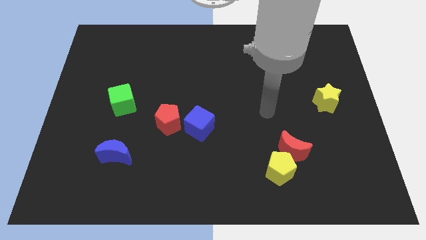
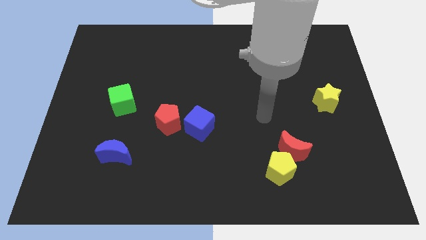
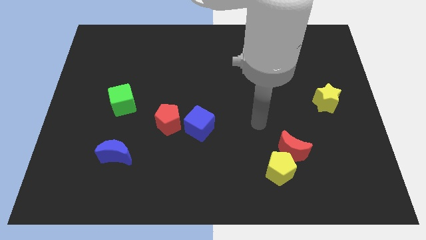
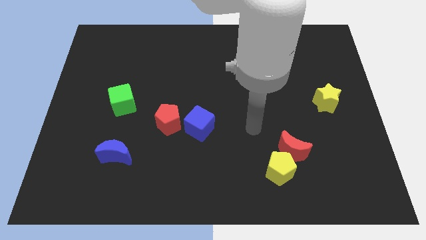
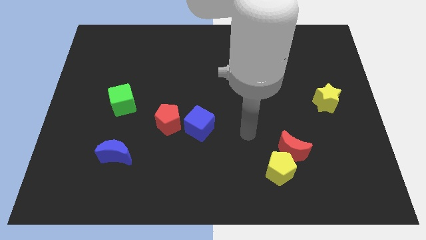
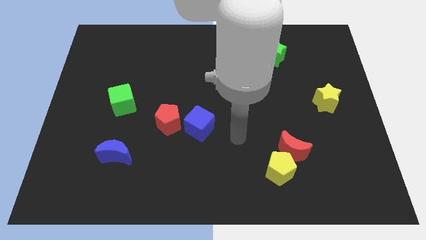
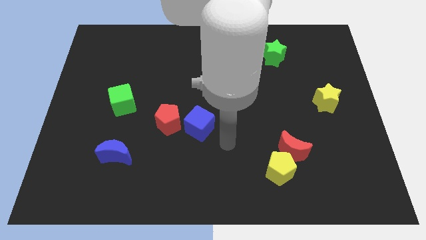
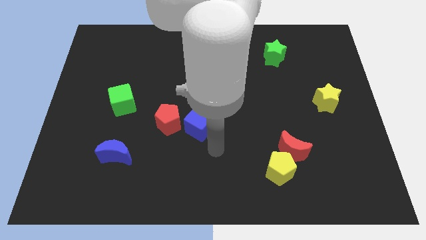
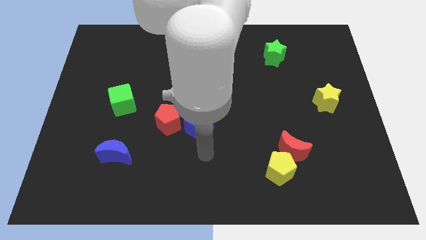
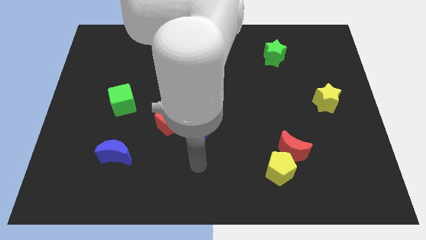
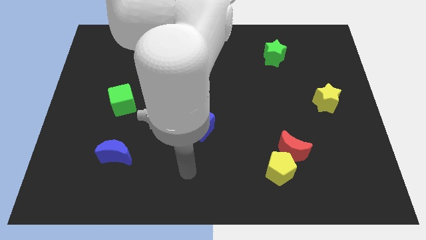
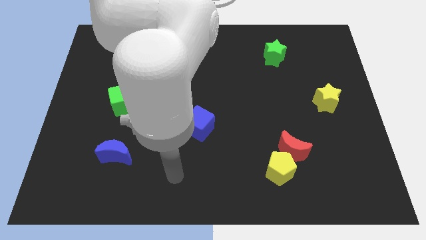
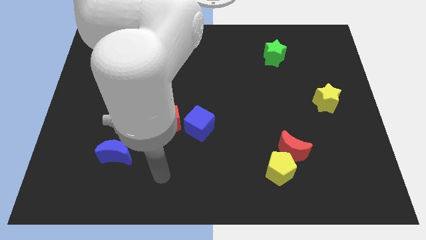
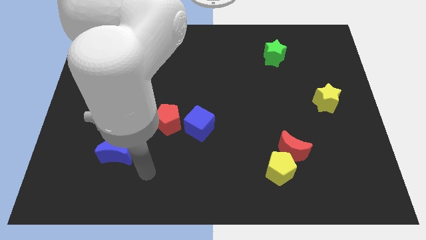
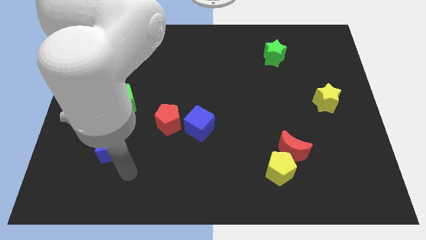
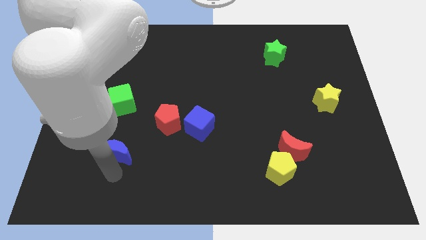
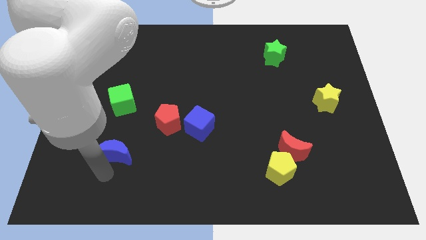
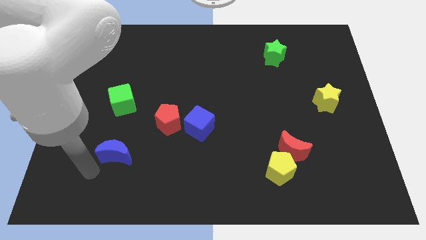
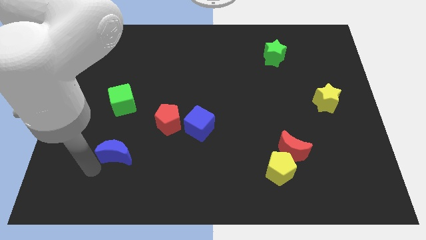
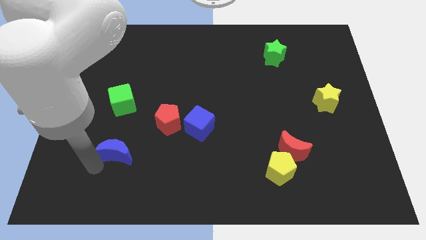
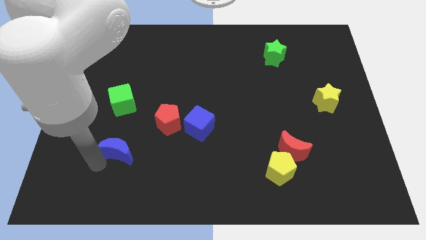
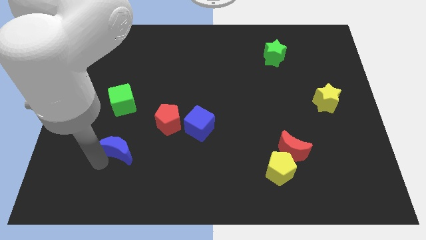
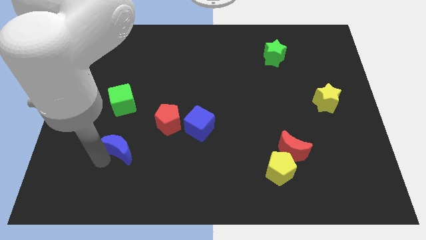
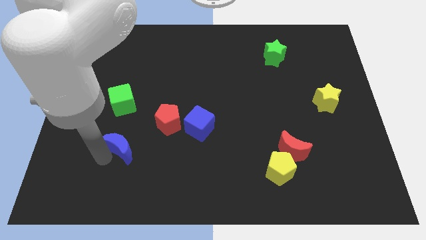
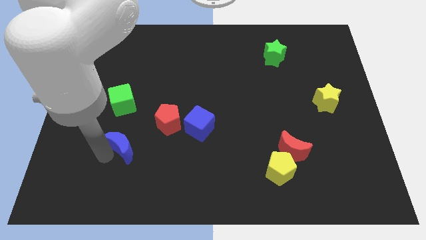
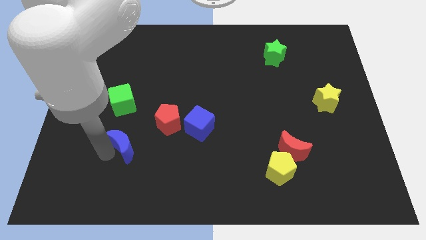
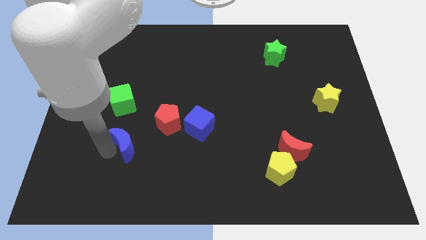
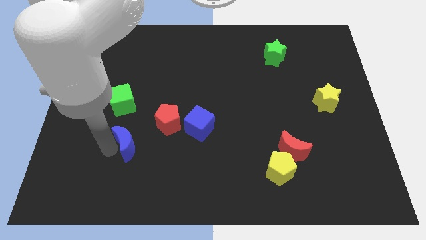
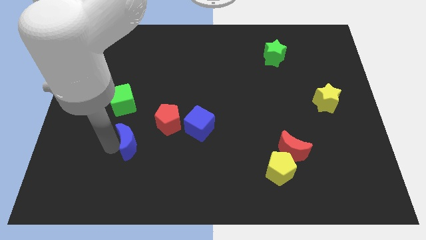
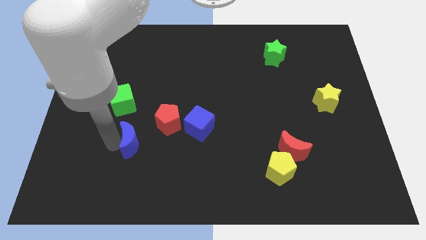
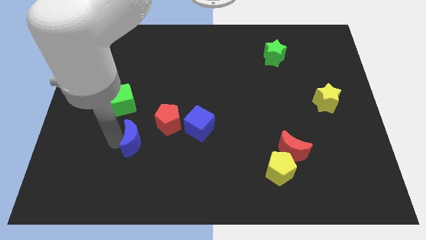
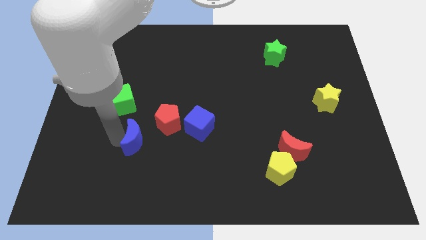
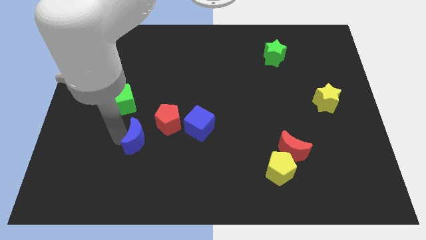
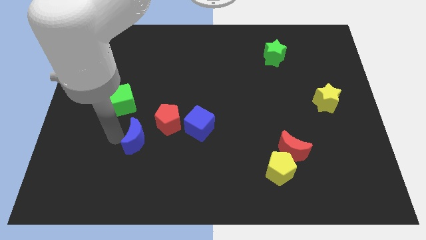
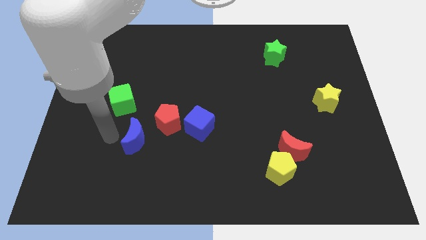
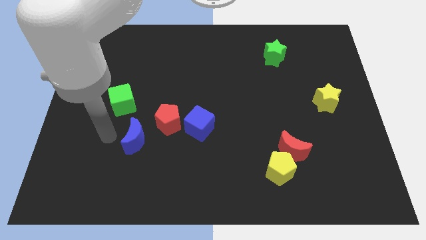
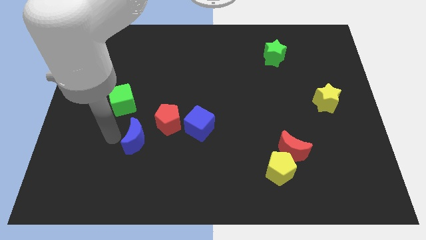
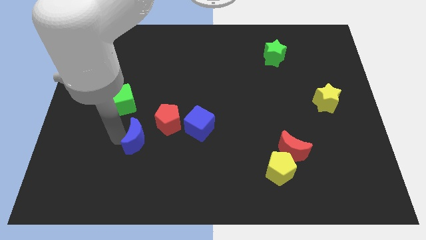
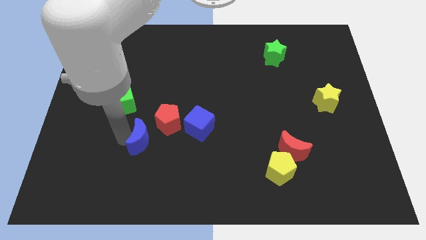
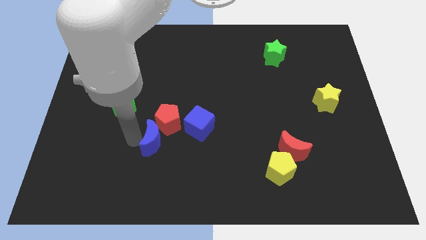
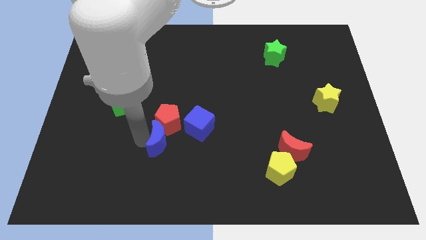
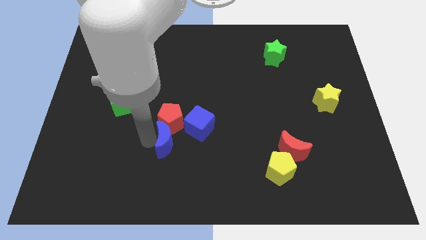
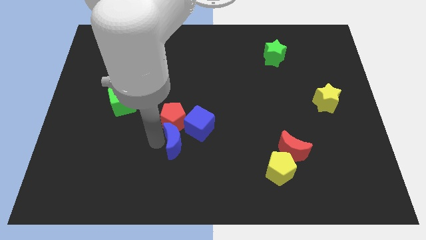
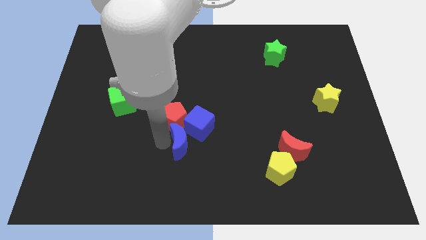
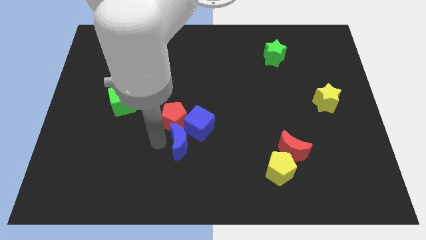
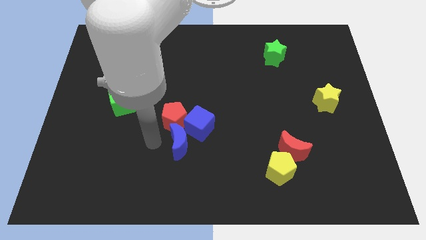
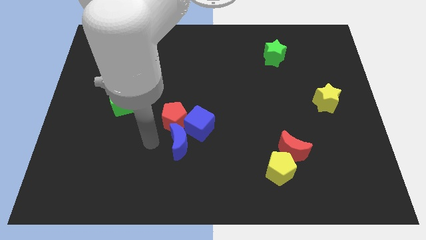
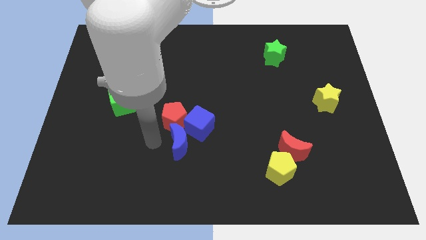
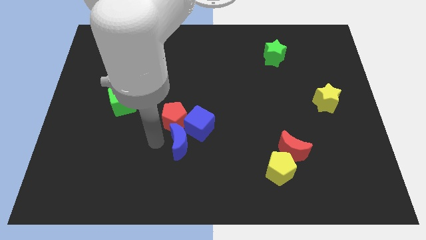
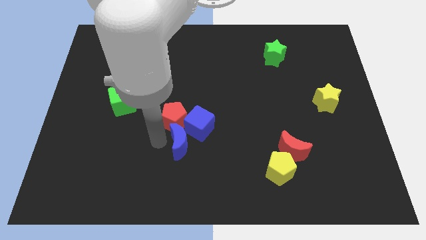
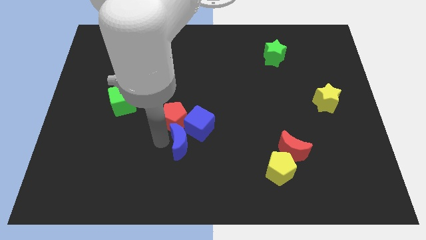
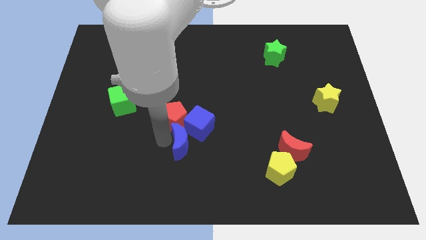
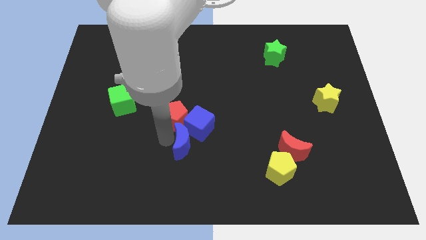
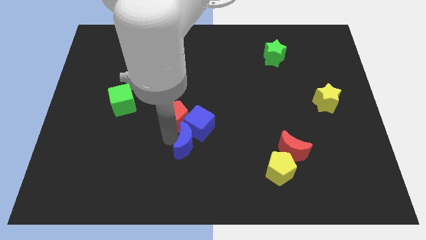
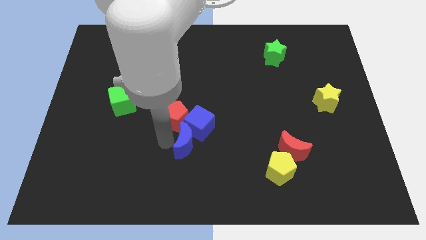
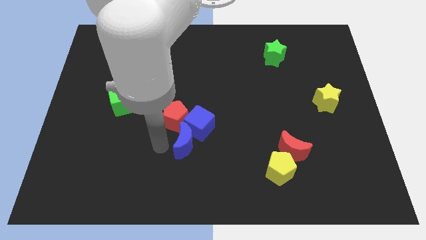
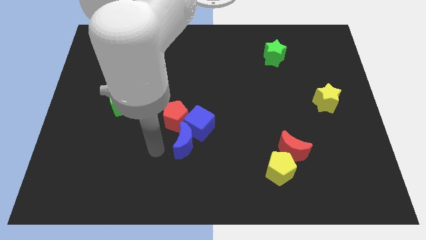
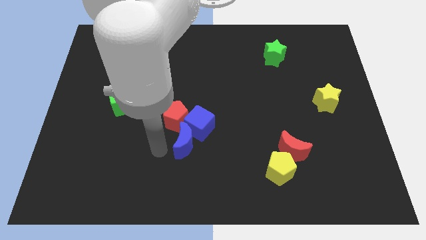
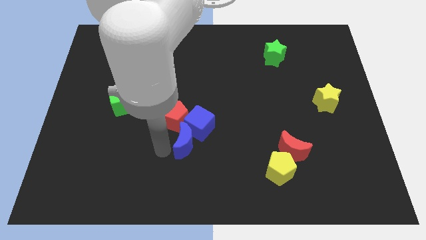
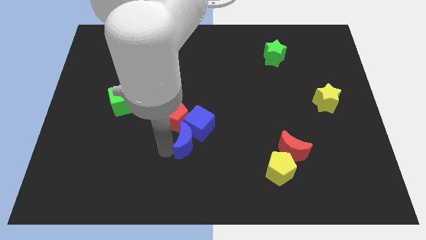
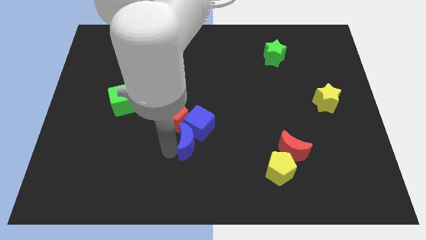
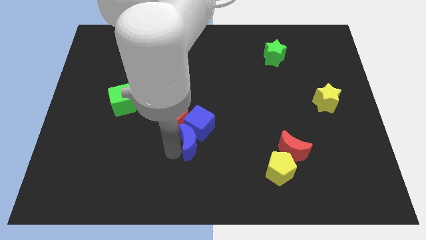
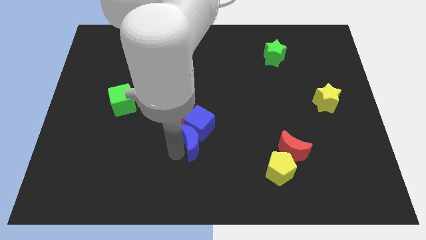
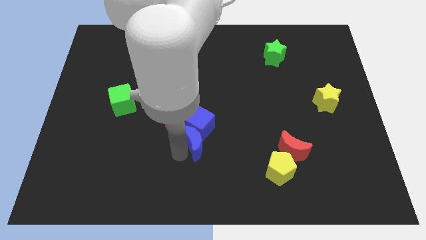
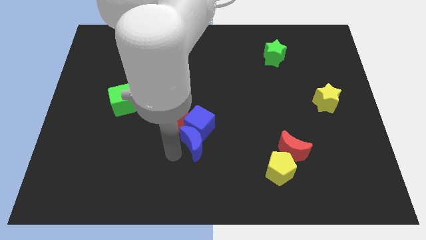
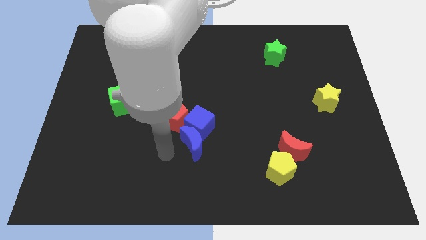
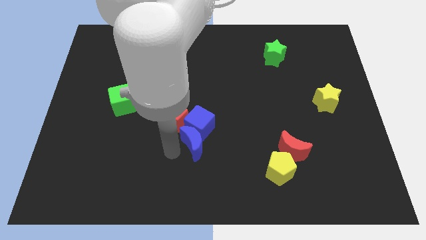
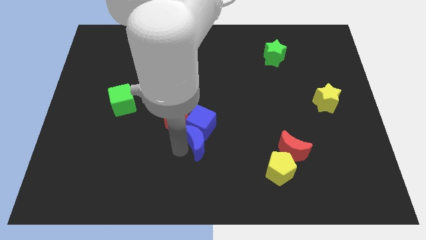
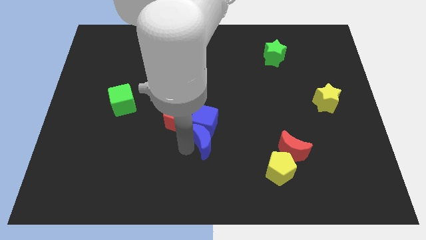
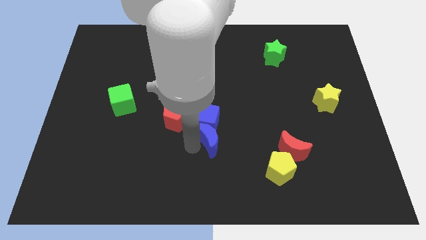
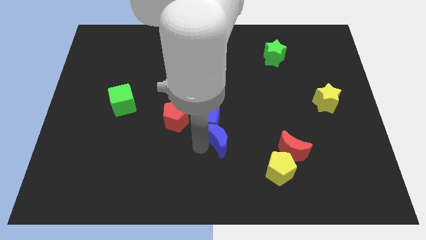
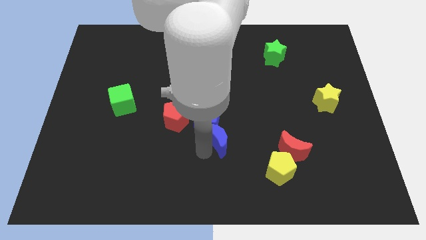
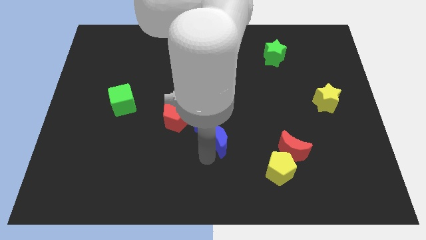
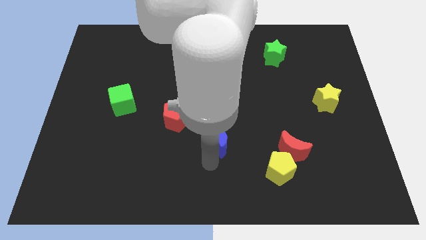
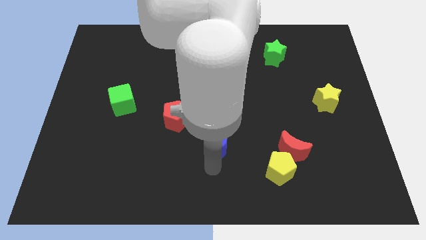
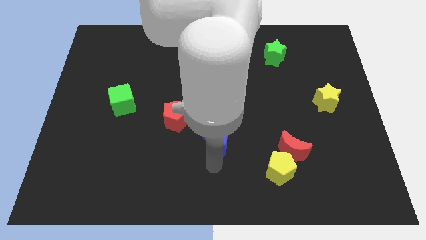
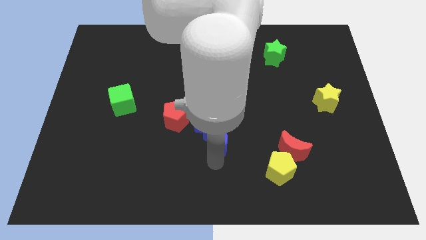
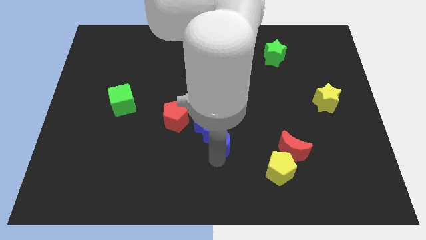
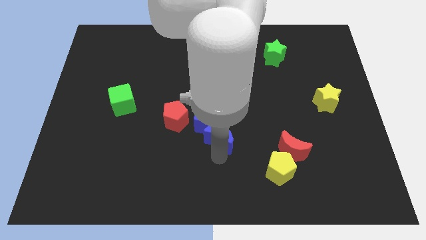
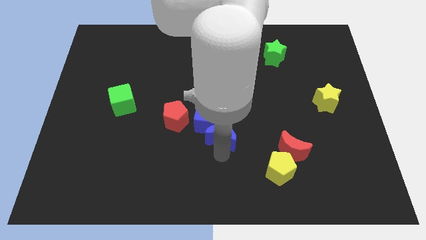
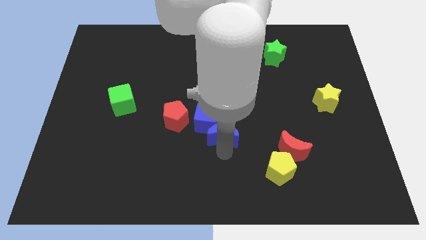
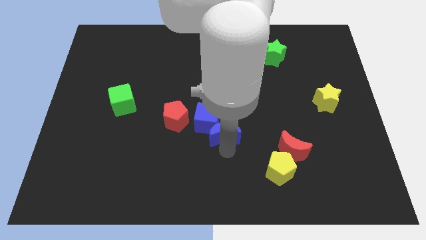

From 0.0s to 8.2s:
slide the blue moon right of the red pentagon
